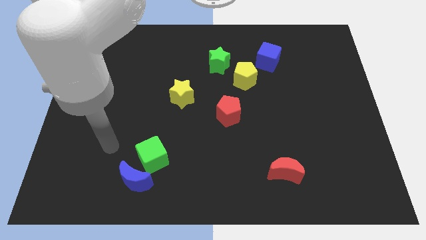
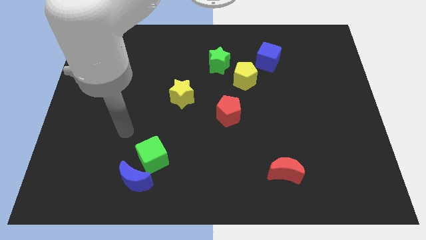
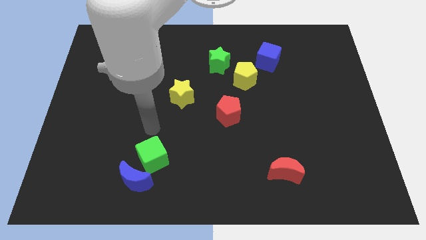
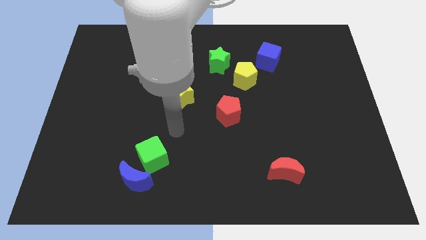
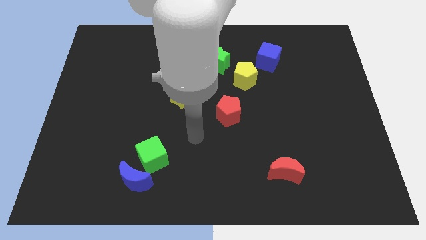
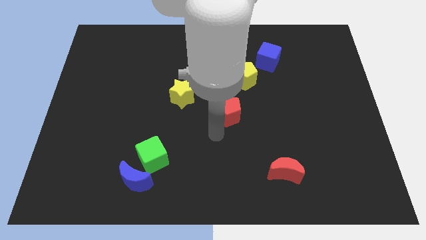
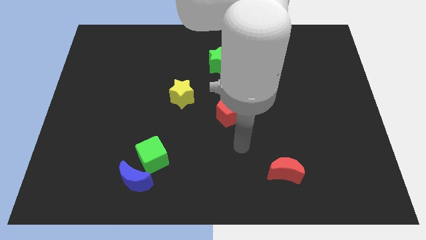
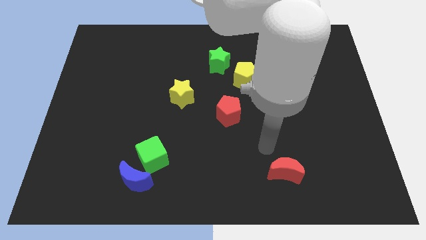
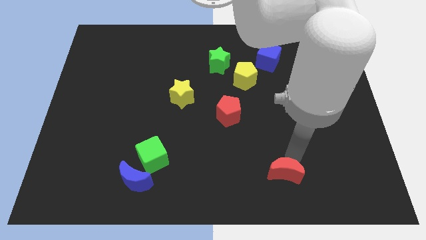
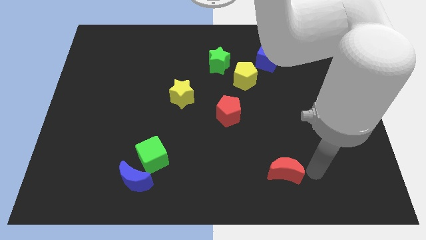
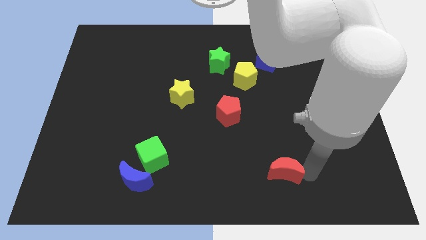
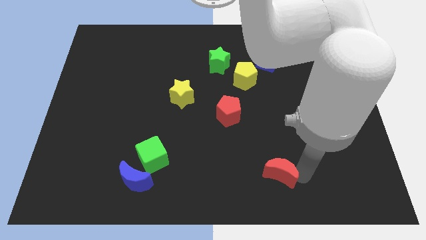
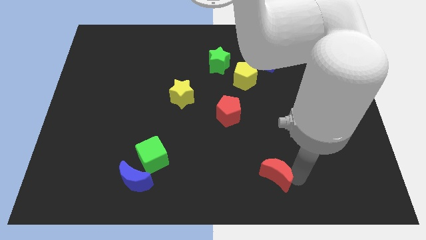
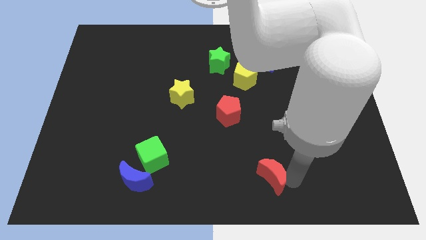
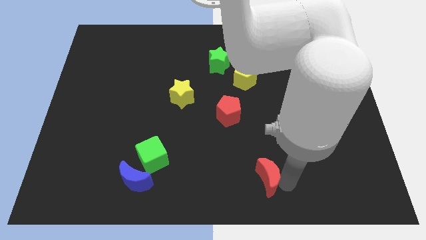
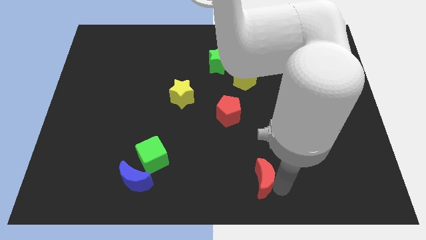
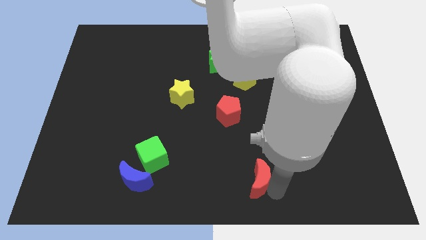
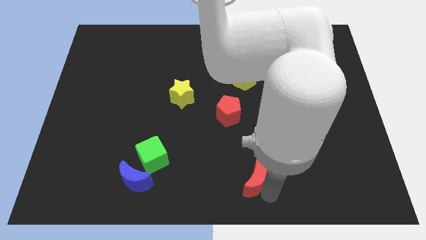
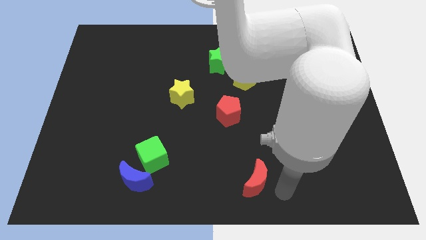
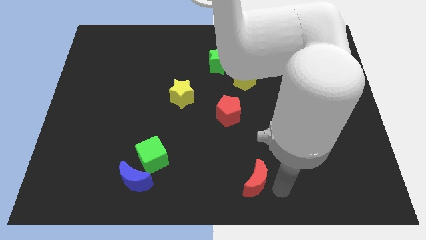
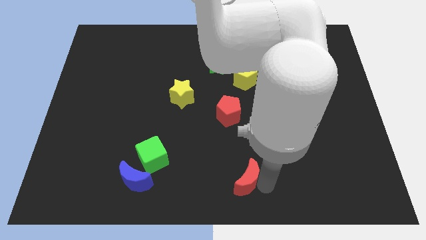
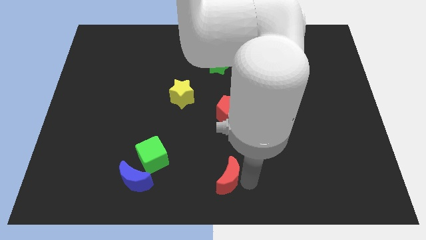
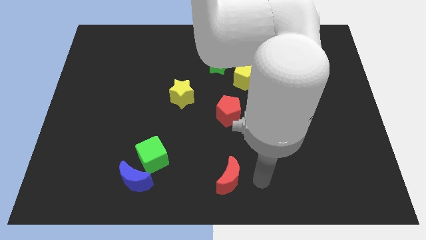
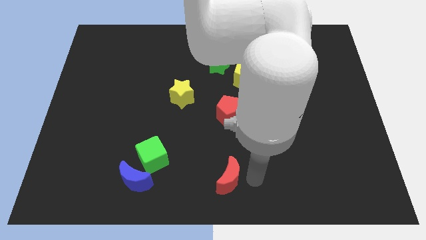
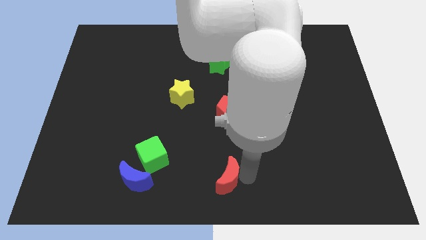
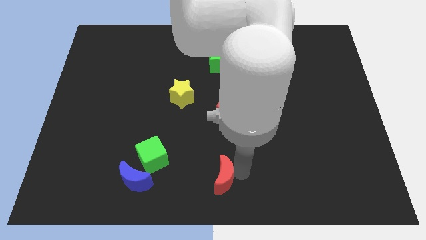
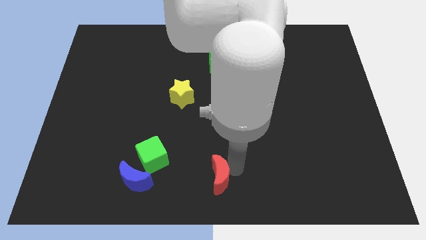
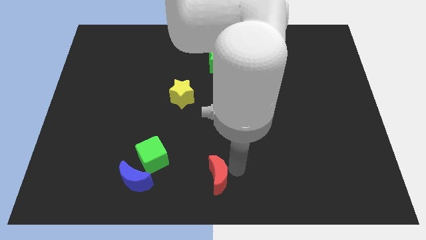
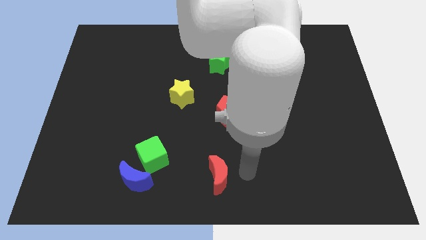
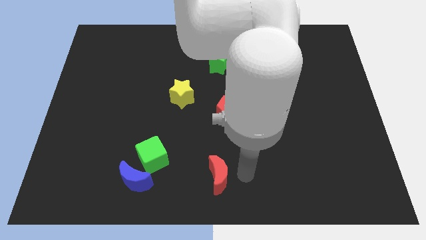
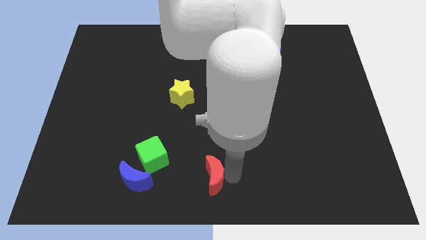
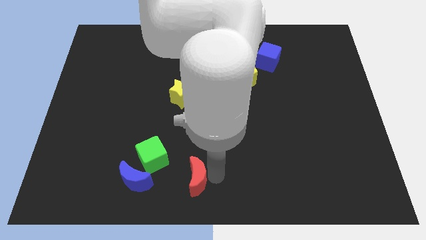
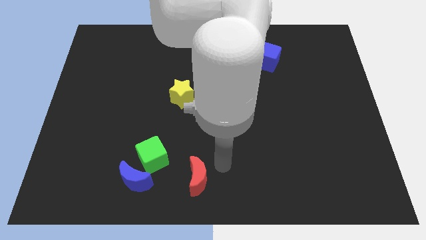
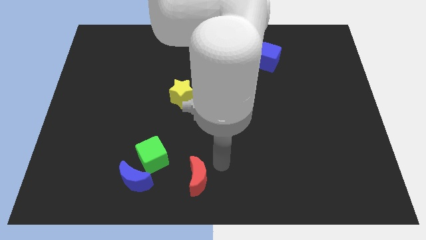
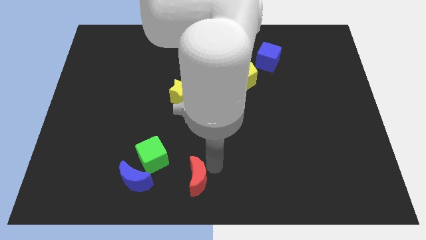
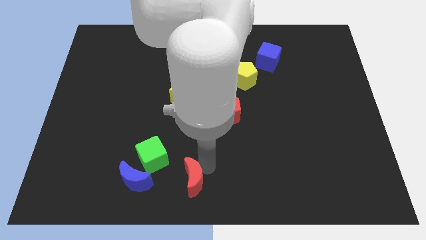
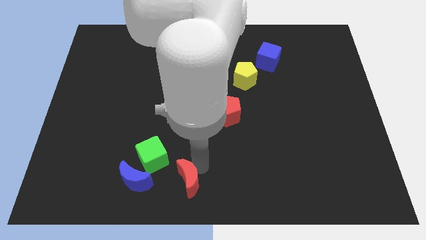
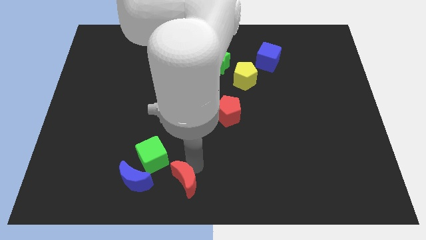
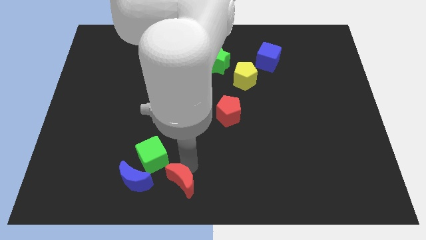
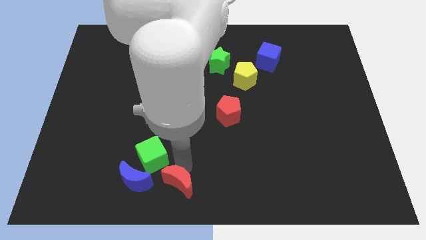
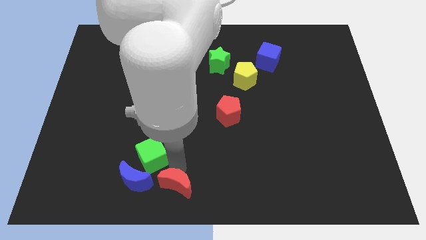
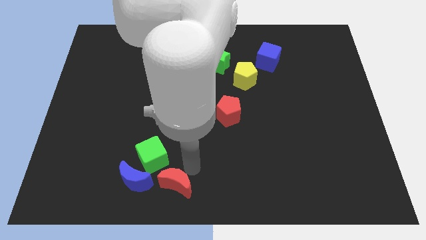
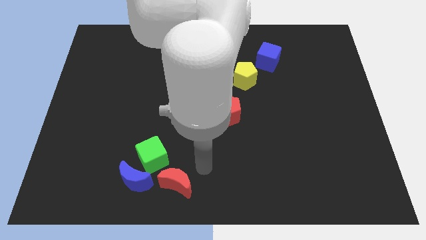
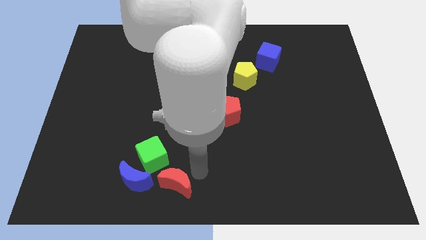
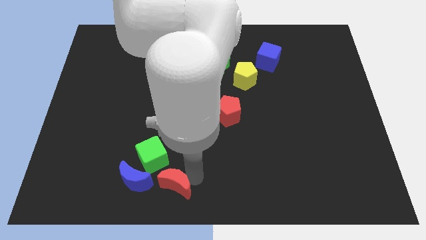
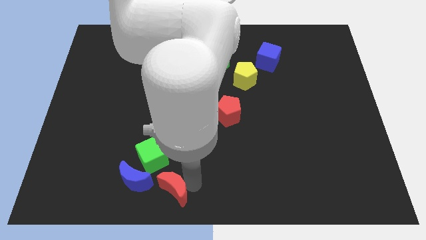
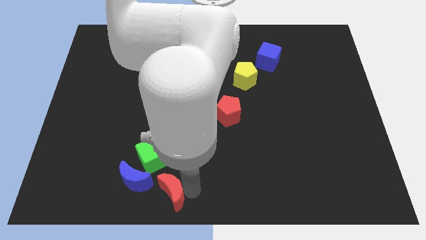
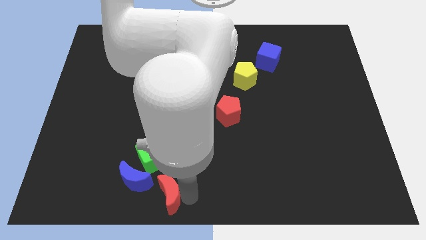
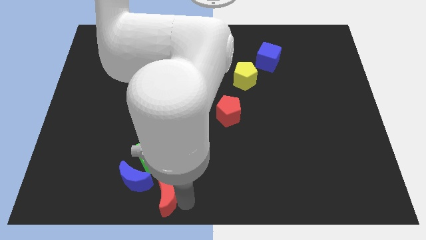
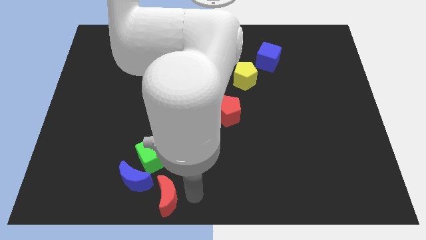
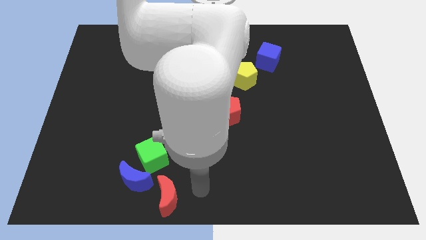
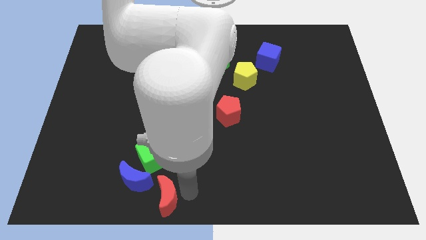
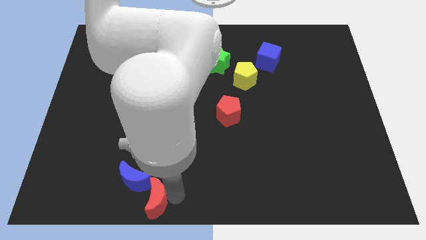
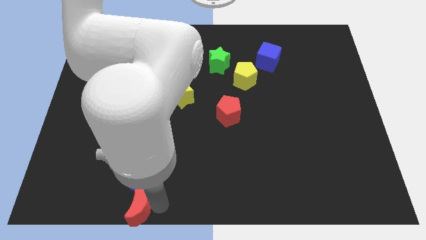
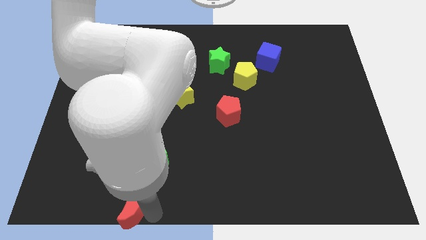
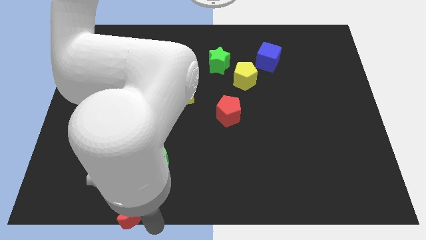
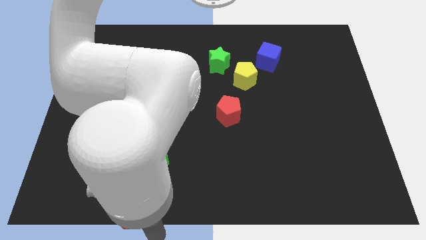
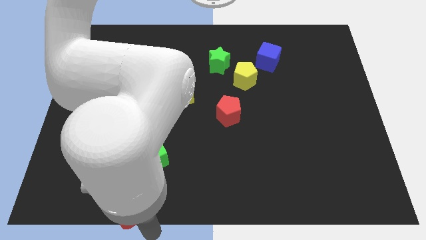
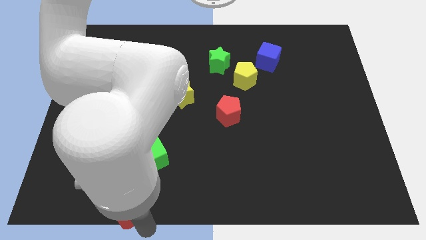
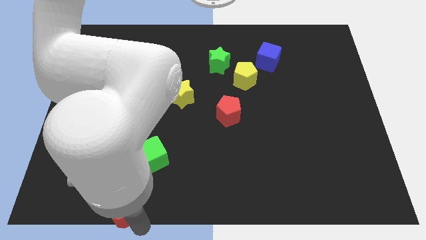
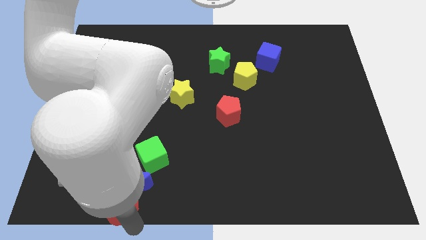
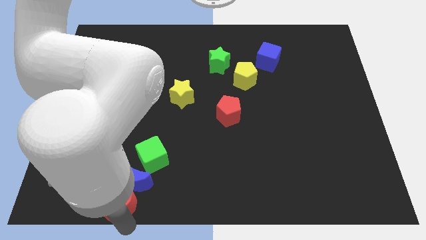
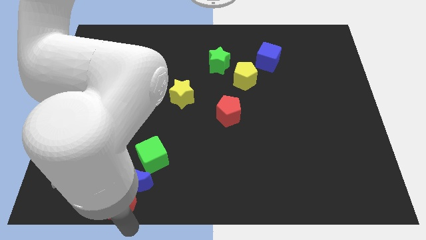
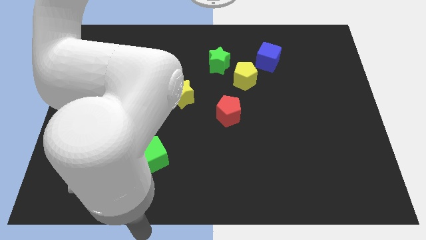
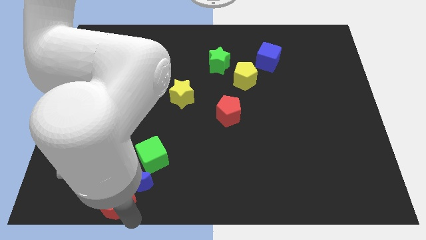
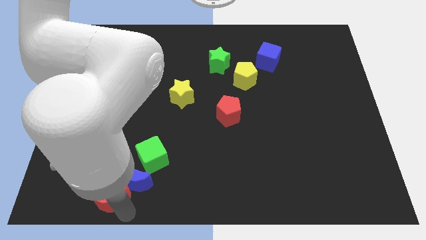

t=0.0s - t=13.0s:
push the red moon to the left of the blue moon
